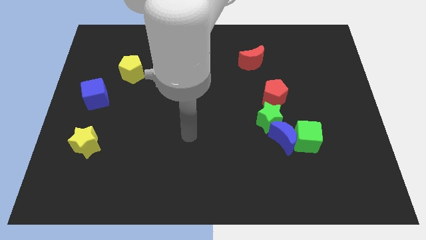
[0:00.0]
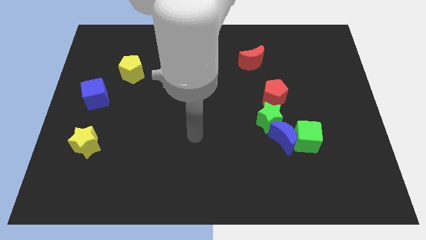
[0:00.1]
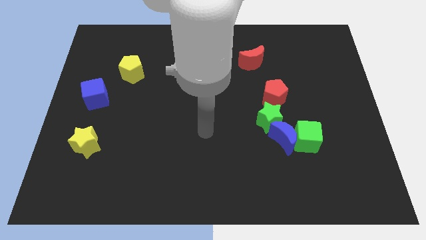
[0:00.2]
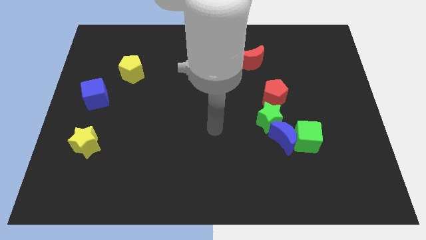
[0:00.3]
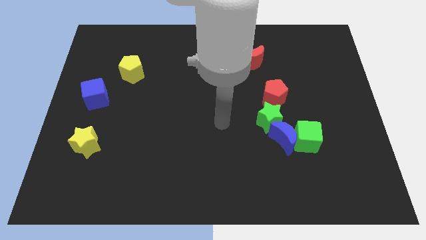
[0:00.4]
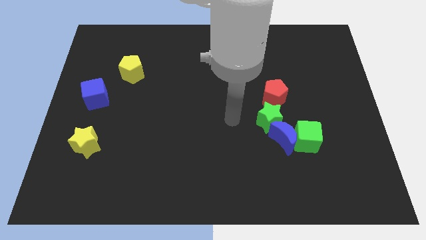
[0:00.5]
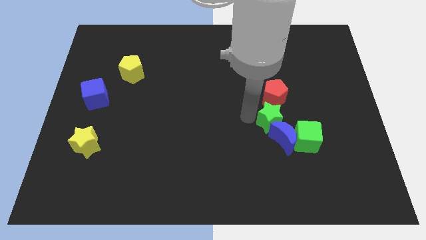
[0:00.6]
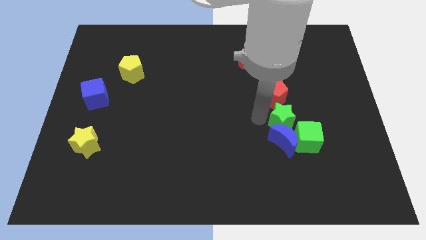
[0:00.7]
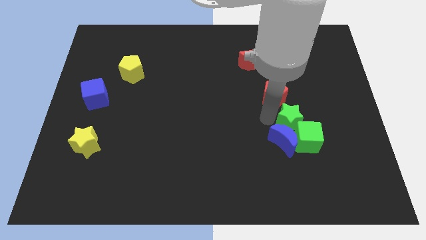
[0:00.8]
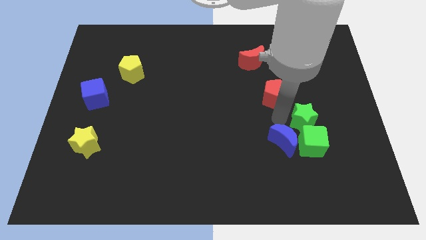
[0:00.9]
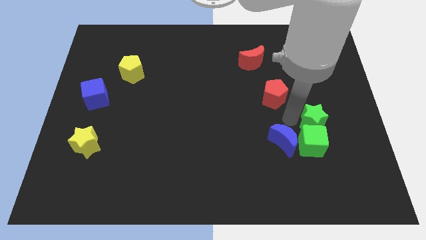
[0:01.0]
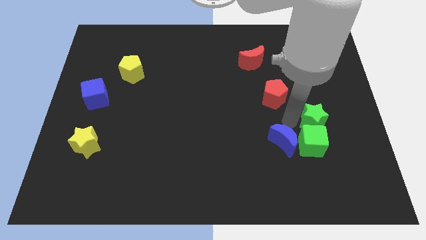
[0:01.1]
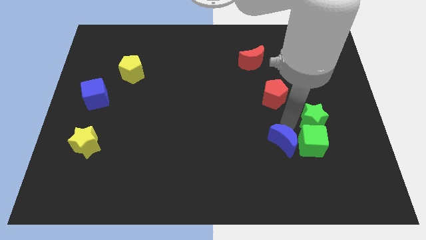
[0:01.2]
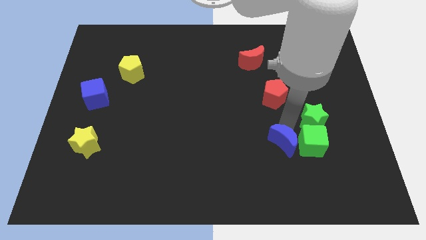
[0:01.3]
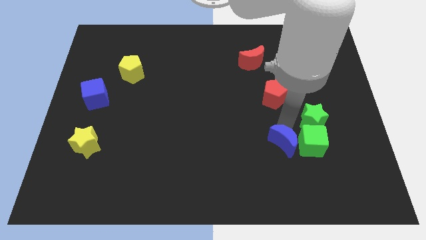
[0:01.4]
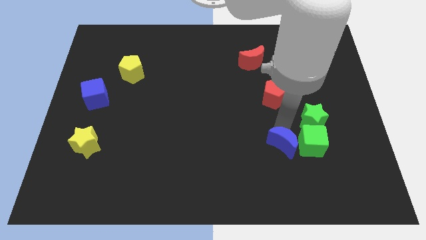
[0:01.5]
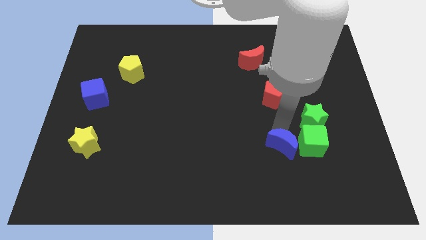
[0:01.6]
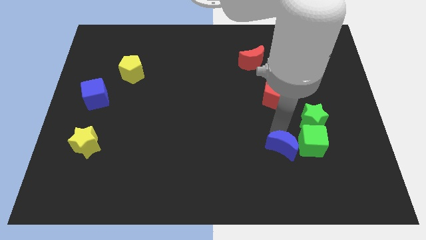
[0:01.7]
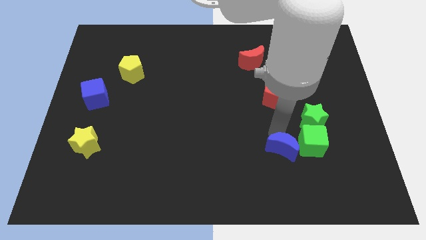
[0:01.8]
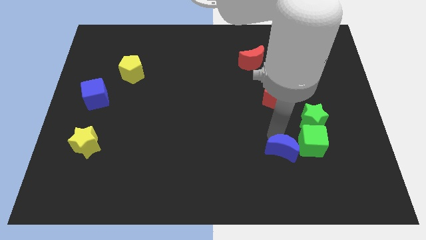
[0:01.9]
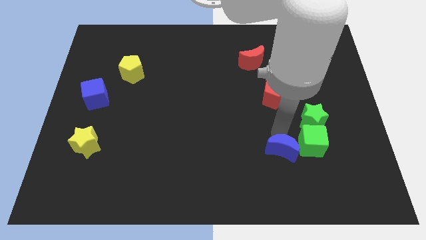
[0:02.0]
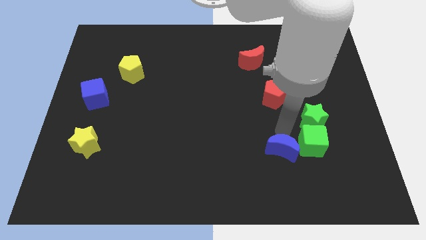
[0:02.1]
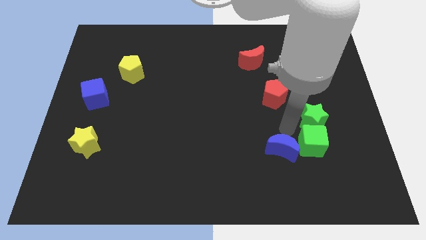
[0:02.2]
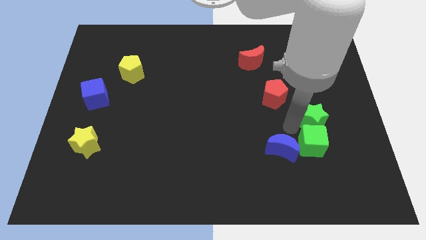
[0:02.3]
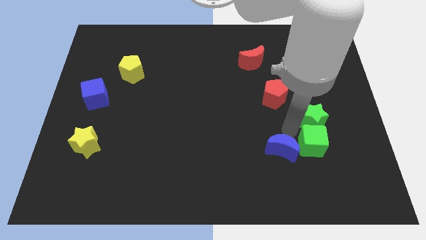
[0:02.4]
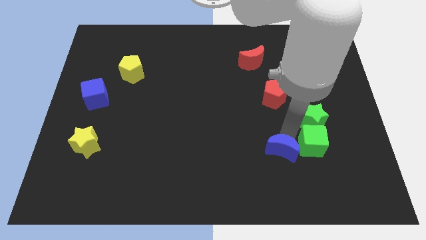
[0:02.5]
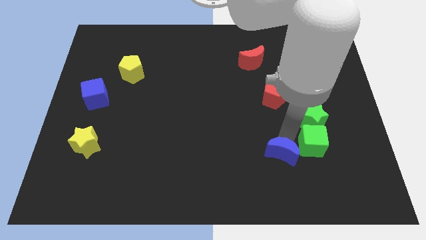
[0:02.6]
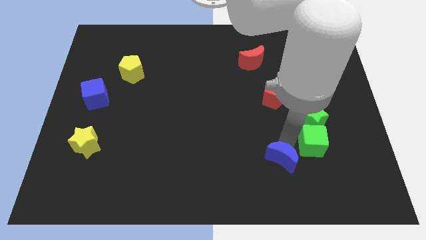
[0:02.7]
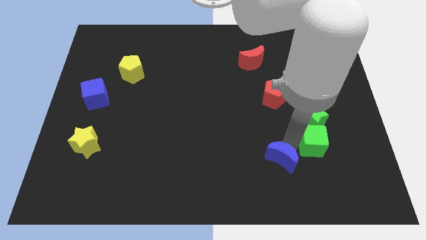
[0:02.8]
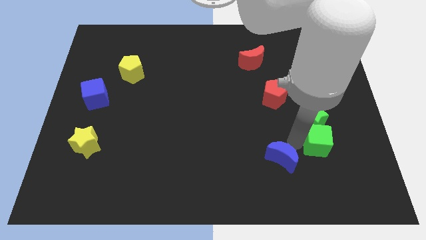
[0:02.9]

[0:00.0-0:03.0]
move the blue moon away from the green cube and green star

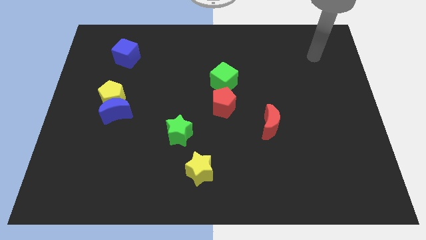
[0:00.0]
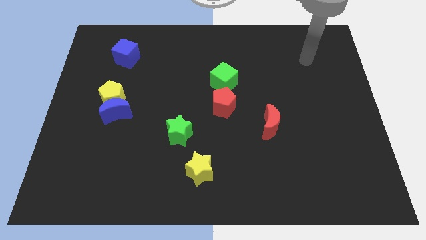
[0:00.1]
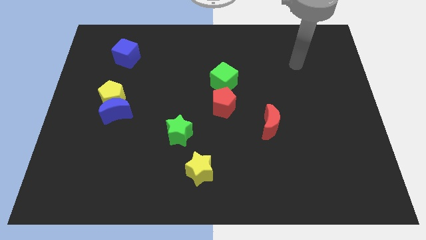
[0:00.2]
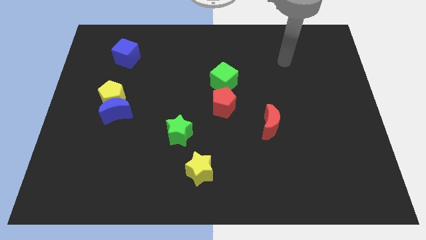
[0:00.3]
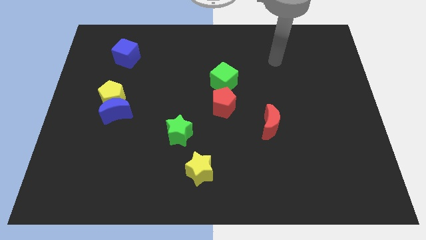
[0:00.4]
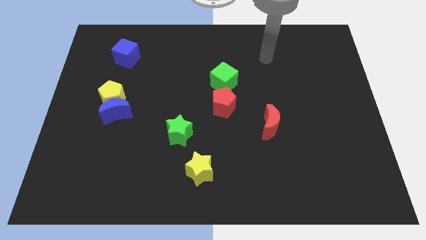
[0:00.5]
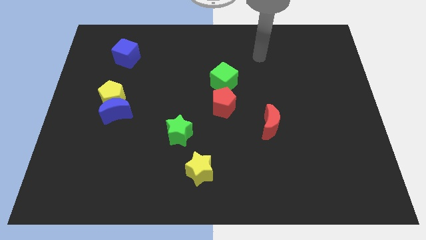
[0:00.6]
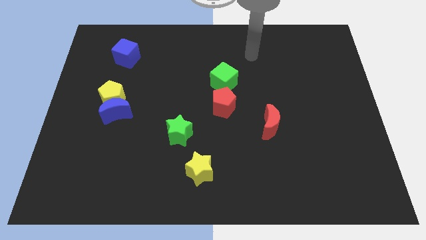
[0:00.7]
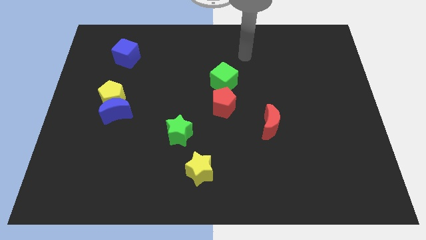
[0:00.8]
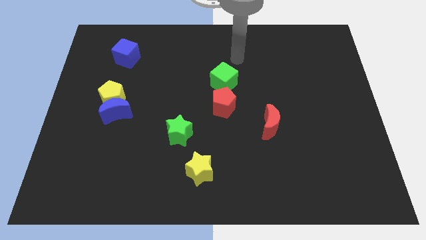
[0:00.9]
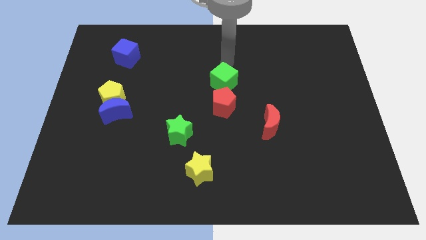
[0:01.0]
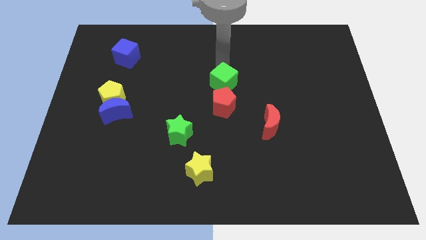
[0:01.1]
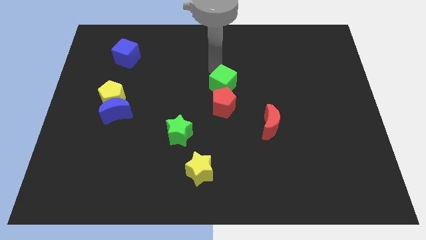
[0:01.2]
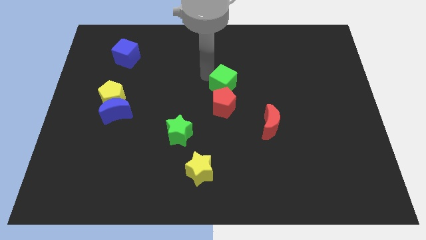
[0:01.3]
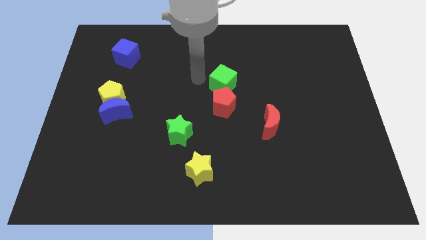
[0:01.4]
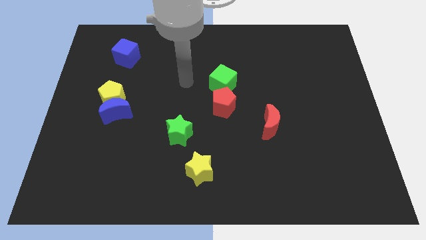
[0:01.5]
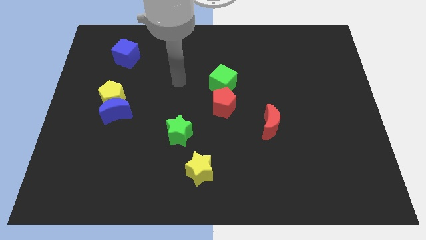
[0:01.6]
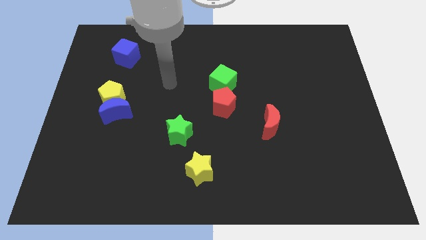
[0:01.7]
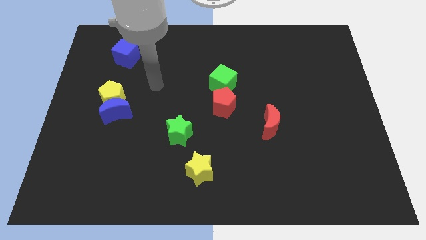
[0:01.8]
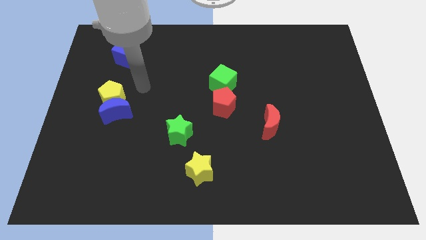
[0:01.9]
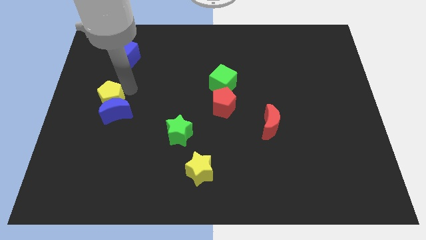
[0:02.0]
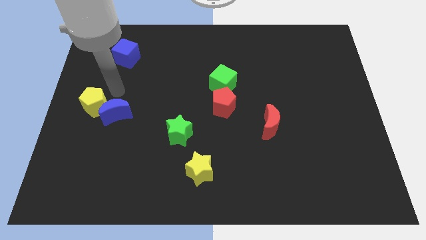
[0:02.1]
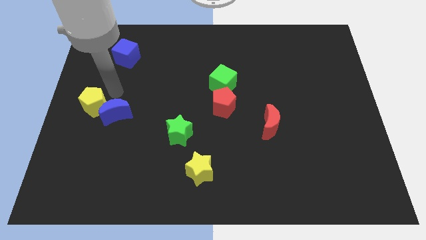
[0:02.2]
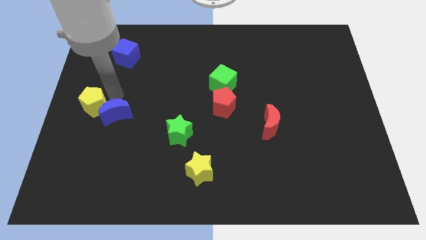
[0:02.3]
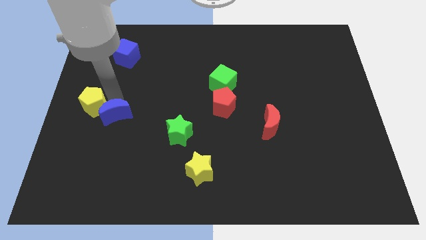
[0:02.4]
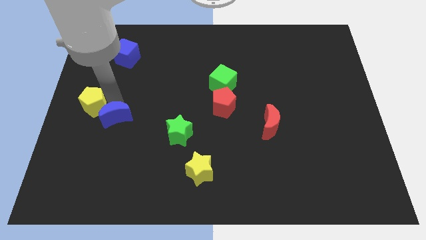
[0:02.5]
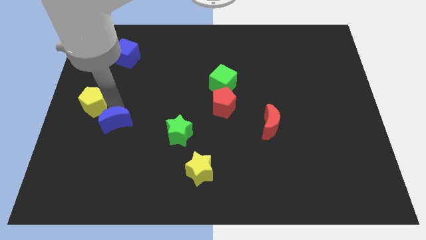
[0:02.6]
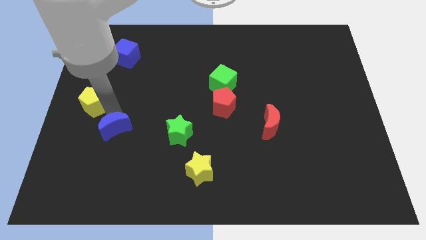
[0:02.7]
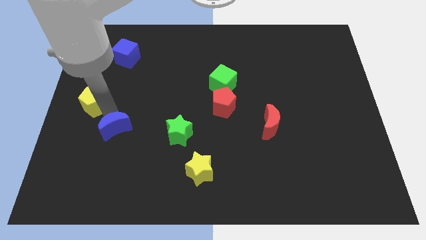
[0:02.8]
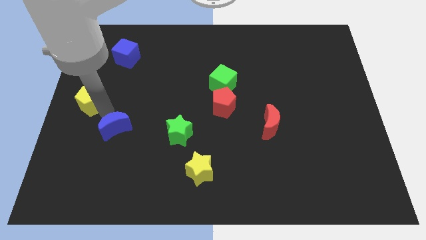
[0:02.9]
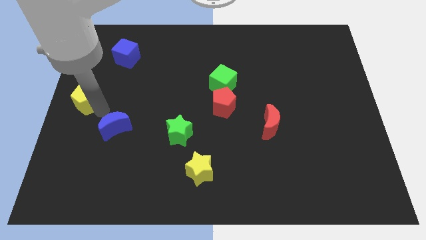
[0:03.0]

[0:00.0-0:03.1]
pull the blue moon apart from the yellow pentagon

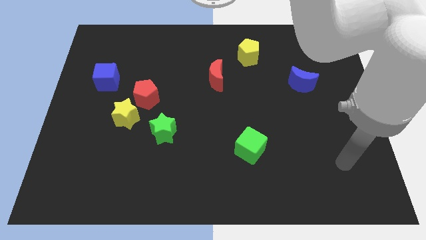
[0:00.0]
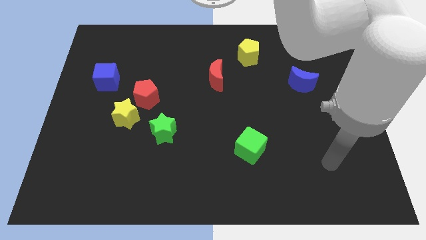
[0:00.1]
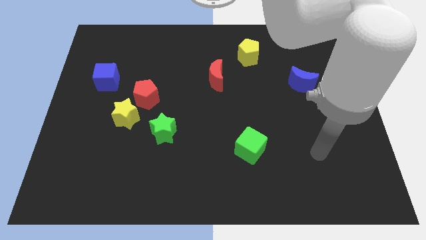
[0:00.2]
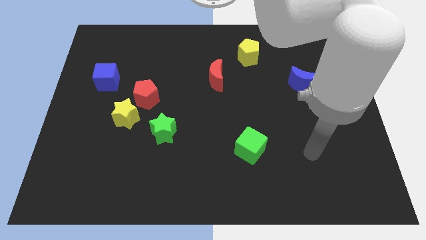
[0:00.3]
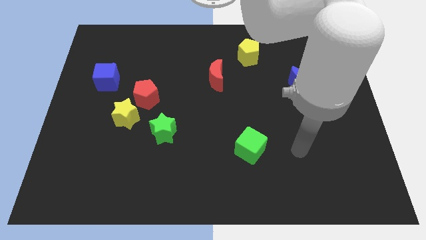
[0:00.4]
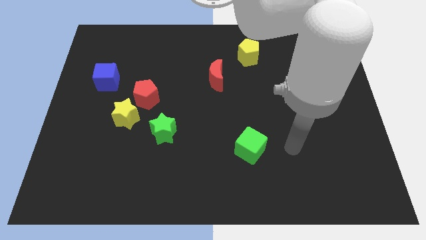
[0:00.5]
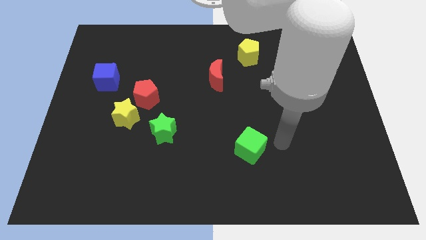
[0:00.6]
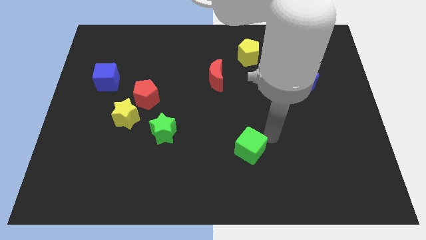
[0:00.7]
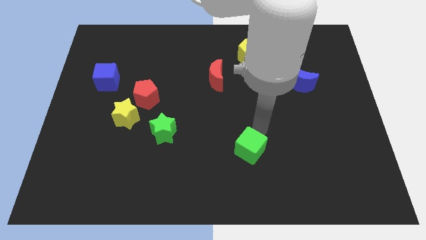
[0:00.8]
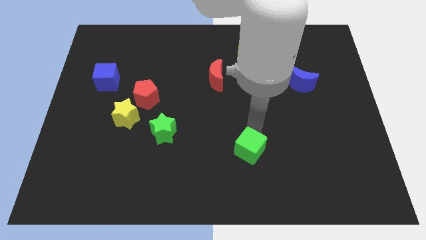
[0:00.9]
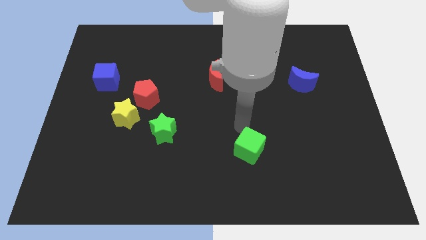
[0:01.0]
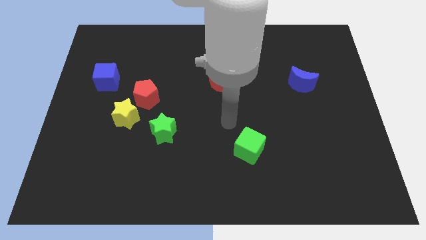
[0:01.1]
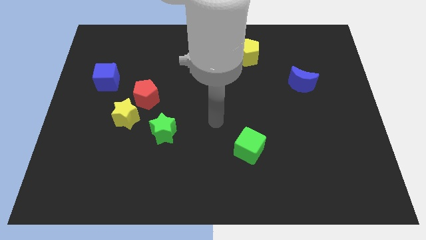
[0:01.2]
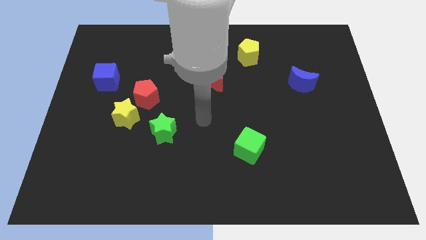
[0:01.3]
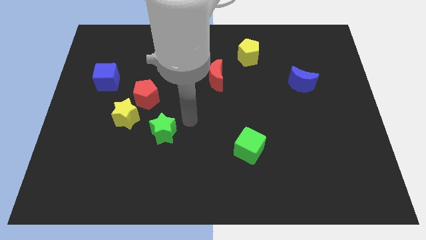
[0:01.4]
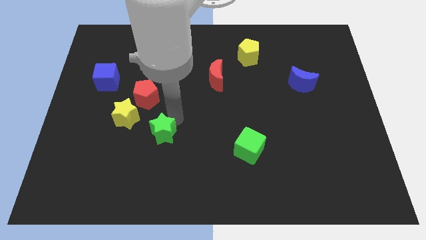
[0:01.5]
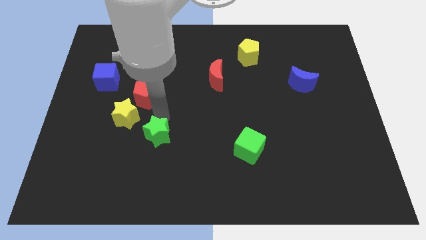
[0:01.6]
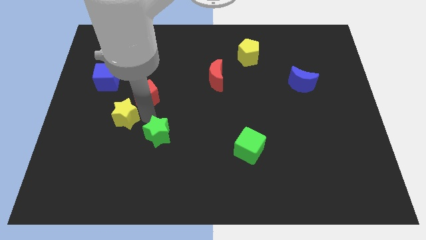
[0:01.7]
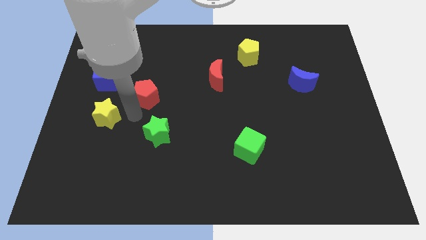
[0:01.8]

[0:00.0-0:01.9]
separate the red pentagon from the yellow star

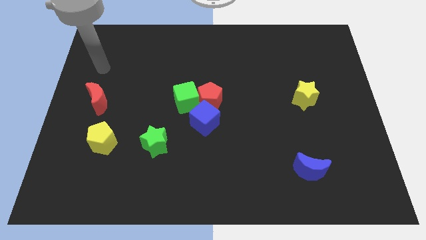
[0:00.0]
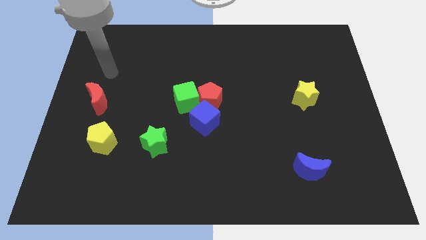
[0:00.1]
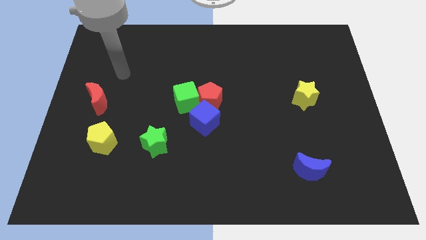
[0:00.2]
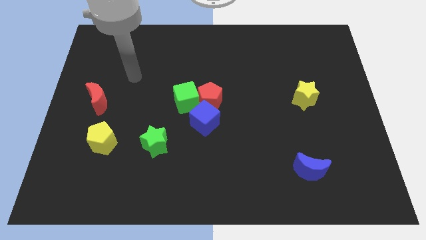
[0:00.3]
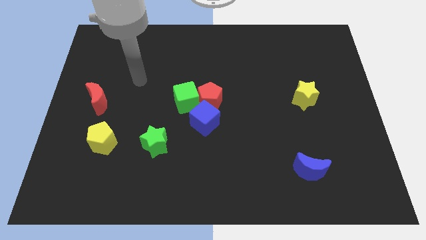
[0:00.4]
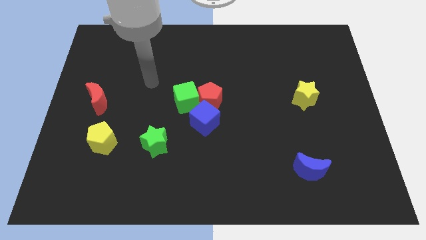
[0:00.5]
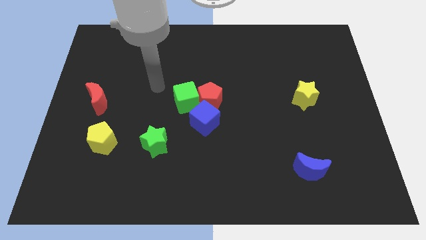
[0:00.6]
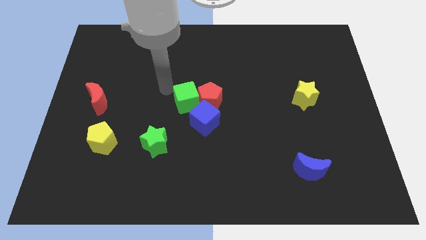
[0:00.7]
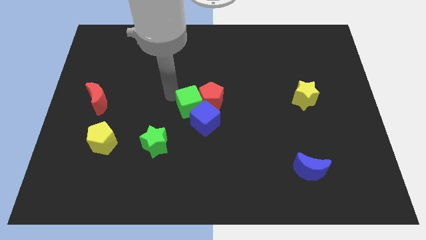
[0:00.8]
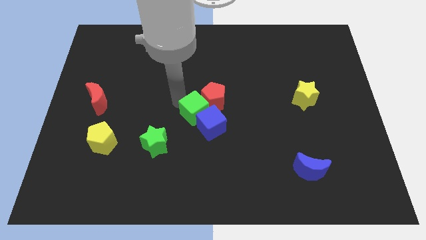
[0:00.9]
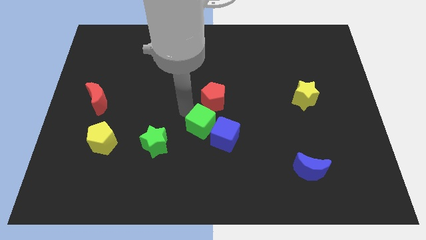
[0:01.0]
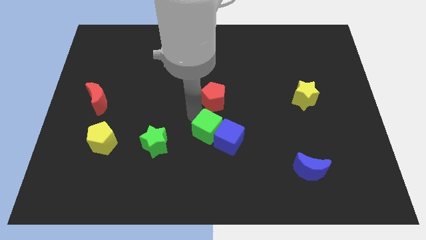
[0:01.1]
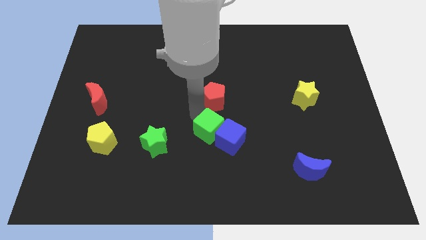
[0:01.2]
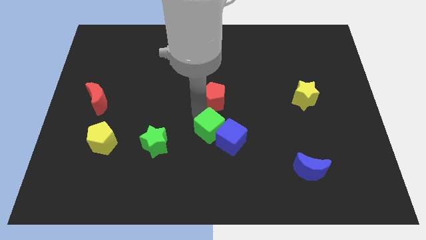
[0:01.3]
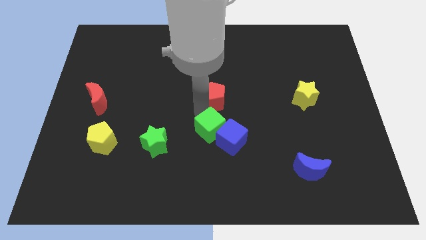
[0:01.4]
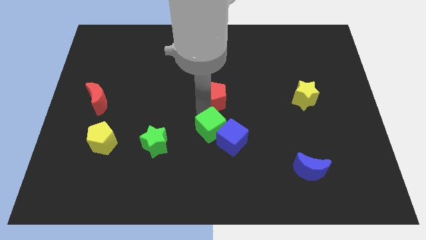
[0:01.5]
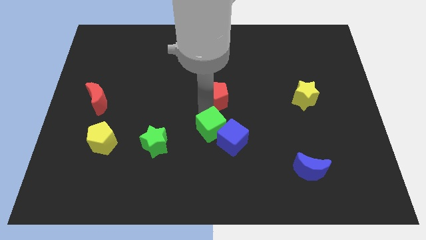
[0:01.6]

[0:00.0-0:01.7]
move the red pentagon away from the green cube and blue cube
